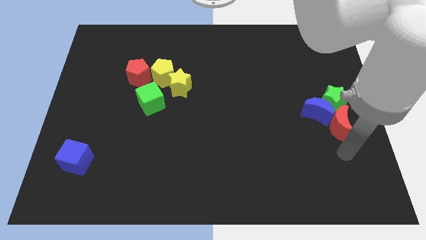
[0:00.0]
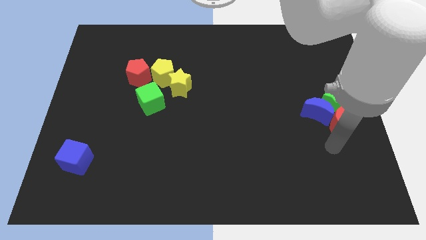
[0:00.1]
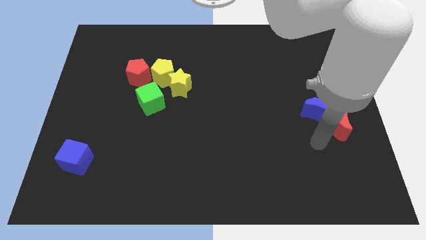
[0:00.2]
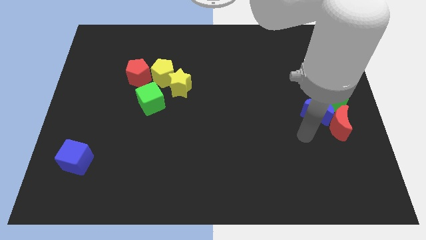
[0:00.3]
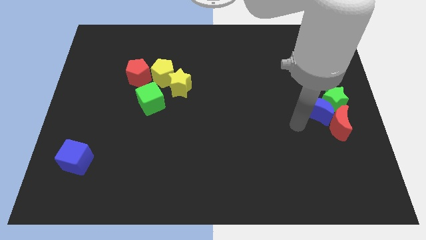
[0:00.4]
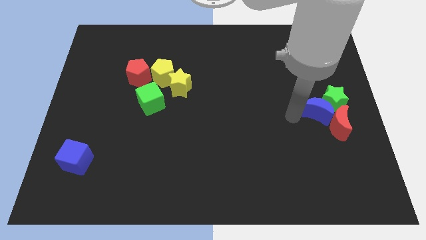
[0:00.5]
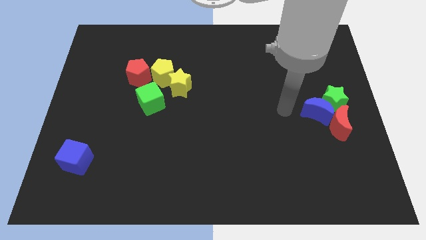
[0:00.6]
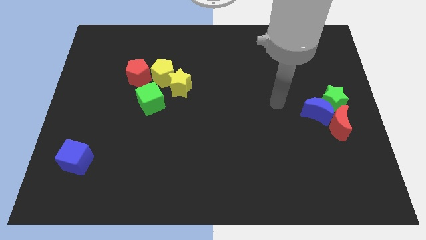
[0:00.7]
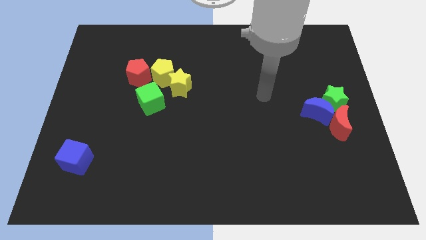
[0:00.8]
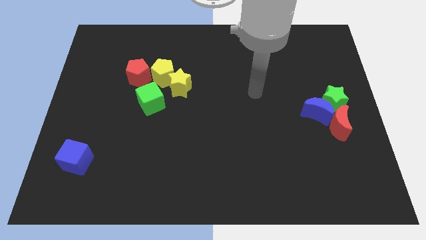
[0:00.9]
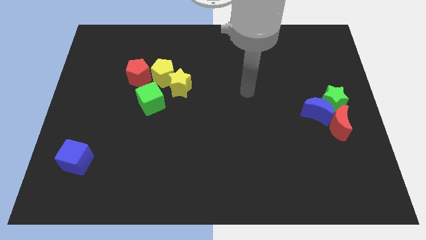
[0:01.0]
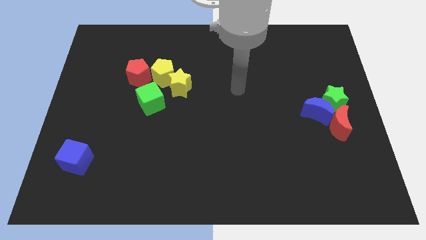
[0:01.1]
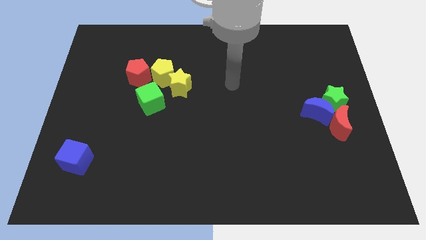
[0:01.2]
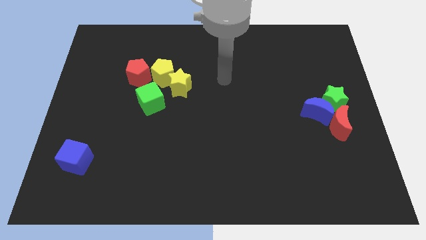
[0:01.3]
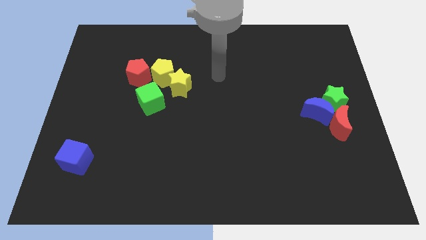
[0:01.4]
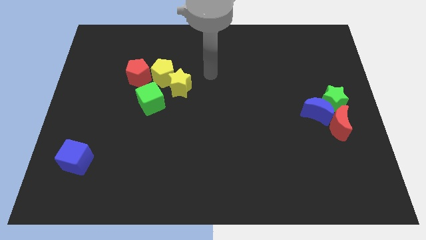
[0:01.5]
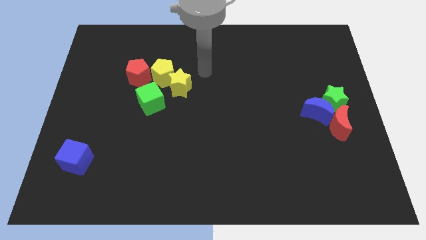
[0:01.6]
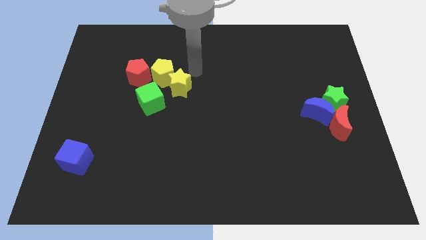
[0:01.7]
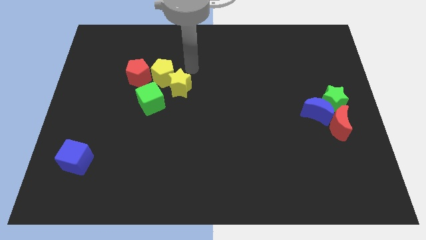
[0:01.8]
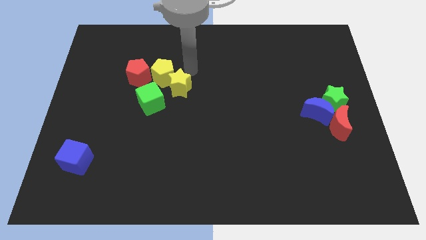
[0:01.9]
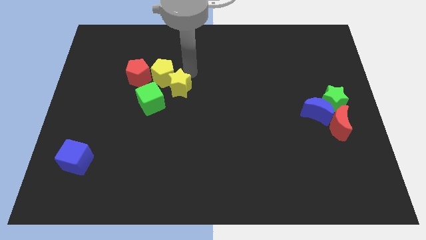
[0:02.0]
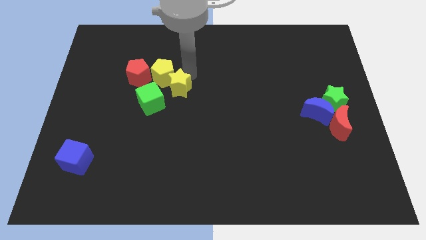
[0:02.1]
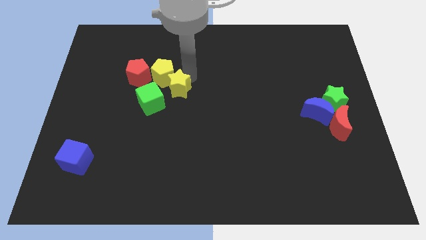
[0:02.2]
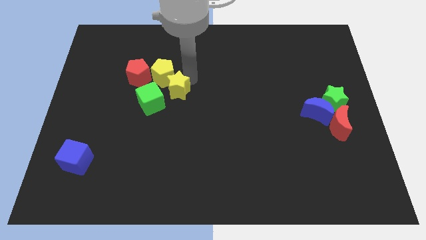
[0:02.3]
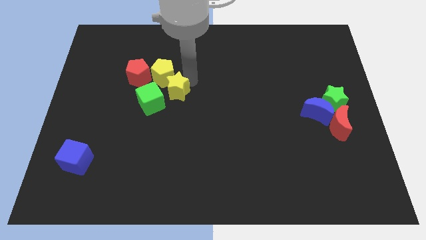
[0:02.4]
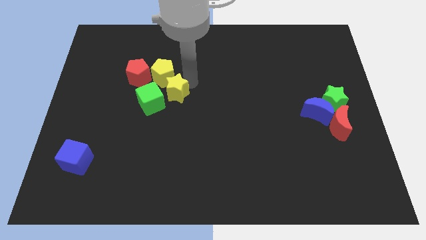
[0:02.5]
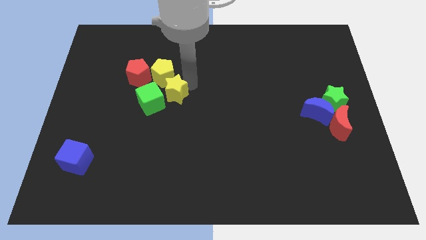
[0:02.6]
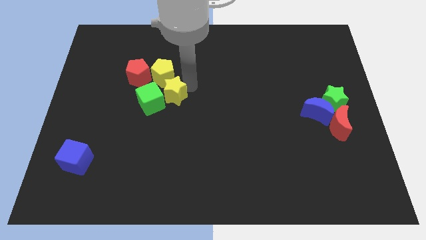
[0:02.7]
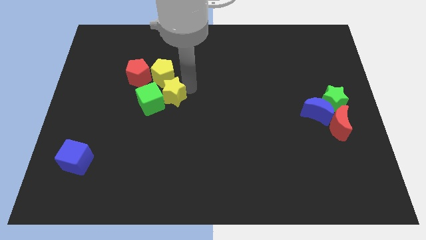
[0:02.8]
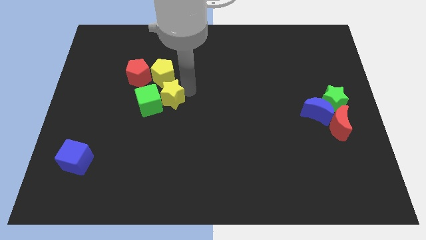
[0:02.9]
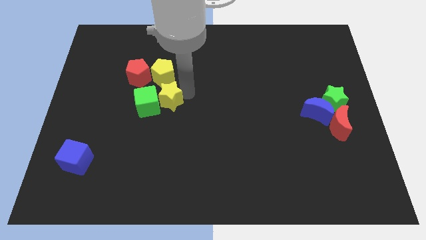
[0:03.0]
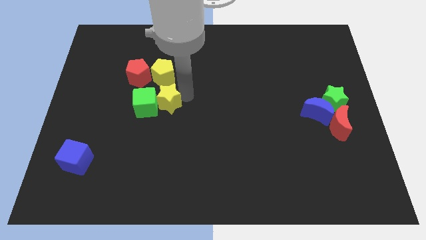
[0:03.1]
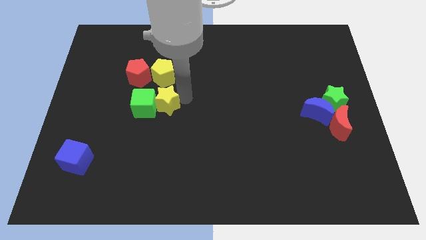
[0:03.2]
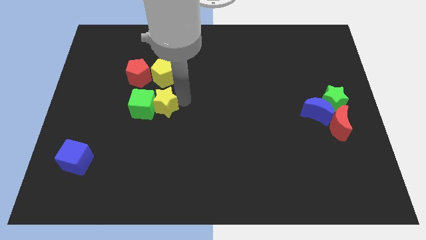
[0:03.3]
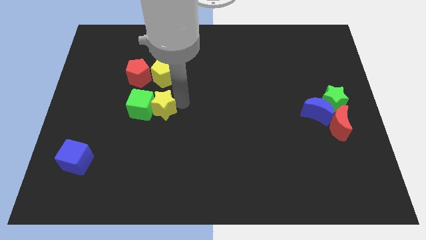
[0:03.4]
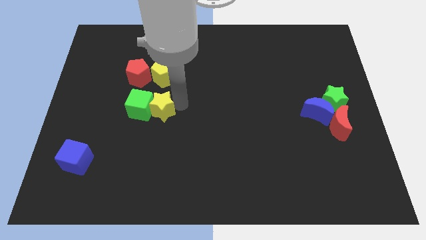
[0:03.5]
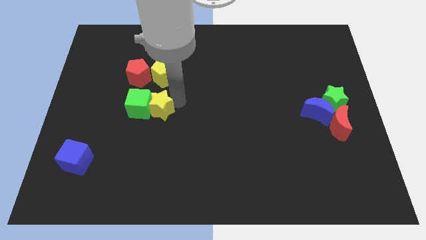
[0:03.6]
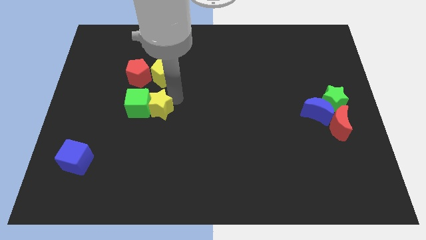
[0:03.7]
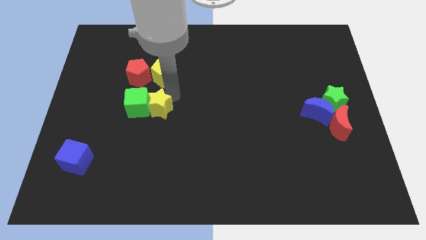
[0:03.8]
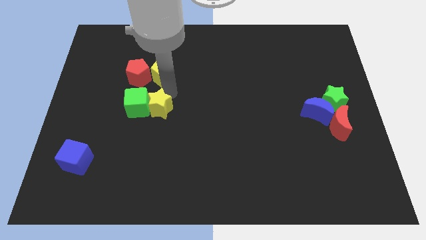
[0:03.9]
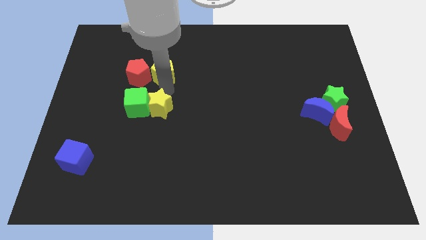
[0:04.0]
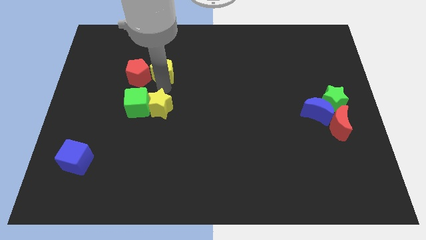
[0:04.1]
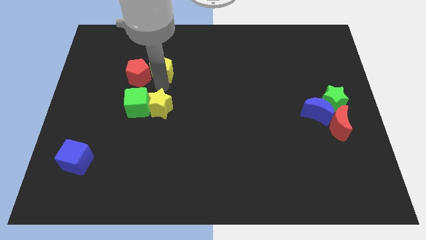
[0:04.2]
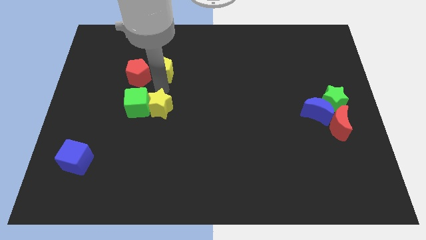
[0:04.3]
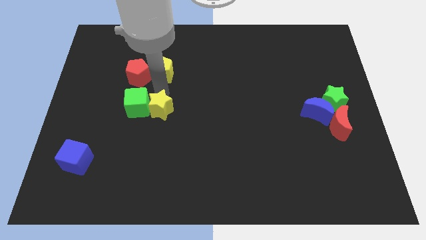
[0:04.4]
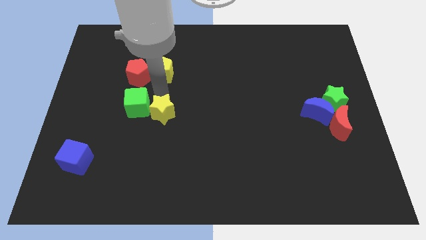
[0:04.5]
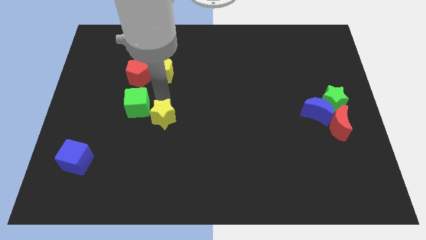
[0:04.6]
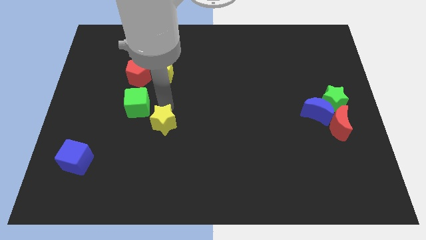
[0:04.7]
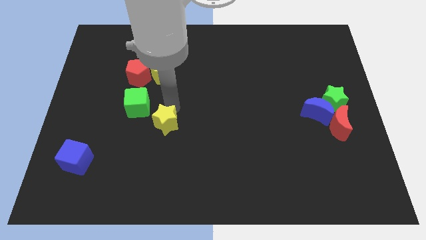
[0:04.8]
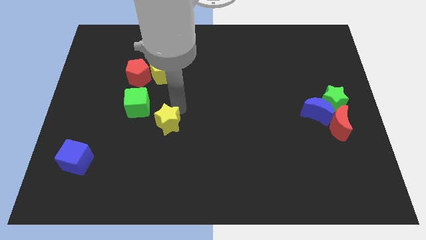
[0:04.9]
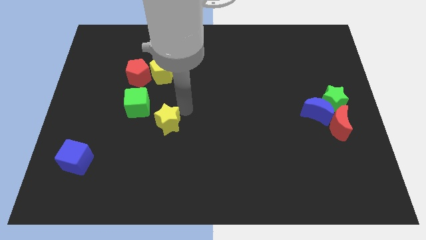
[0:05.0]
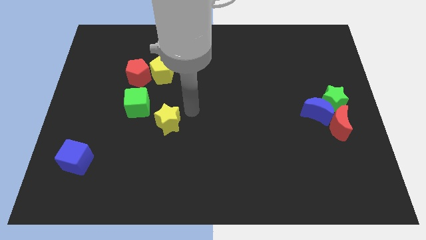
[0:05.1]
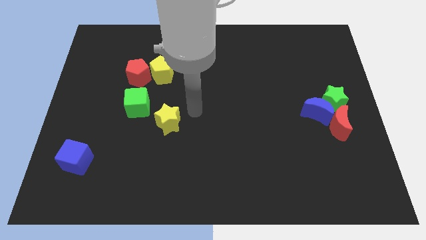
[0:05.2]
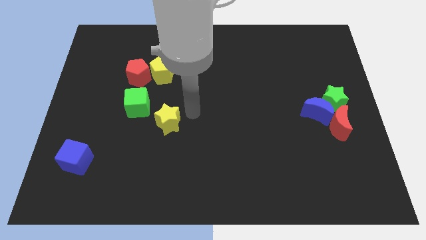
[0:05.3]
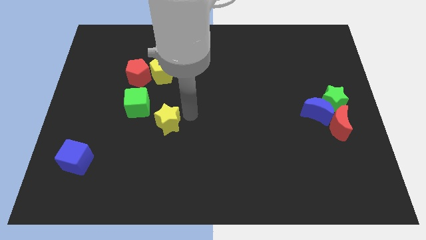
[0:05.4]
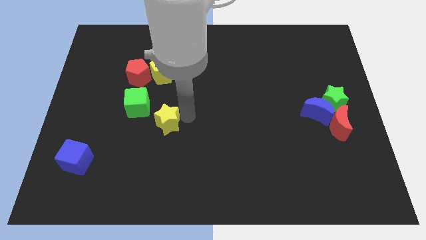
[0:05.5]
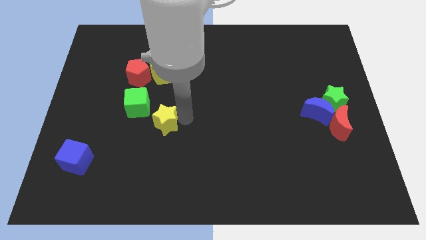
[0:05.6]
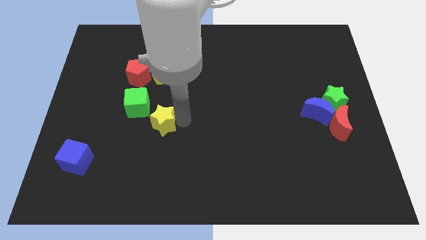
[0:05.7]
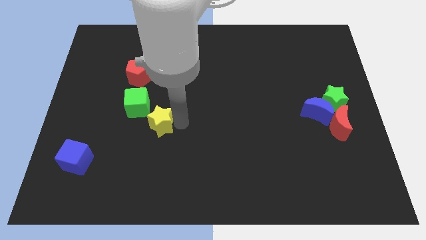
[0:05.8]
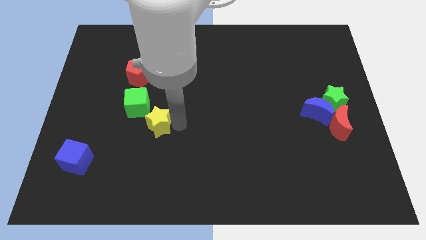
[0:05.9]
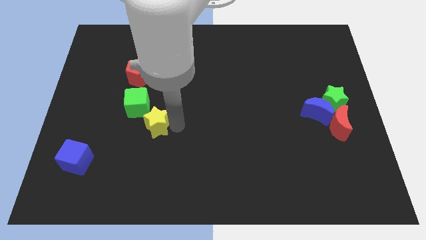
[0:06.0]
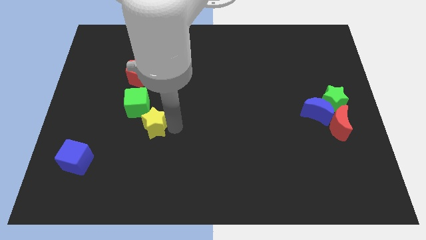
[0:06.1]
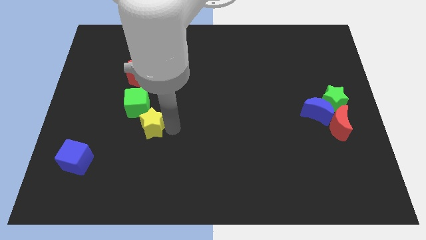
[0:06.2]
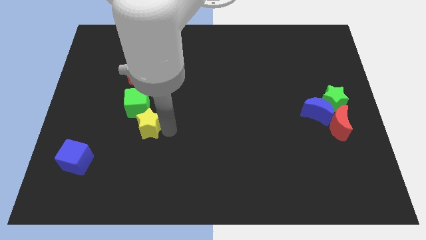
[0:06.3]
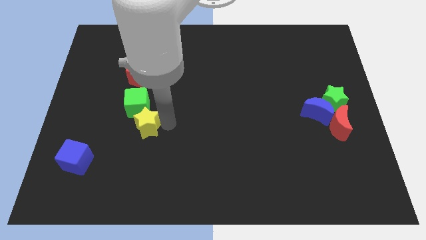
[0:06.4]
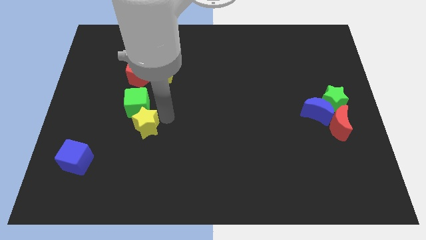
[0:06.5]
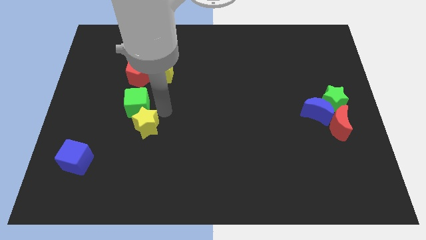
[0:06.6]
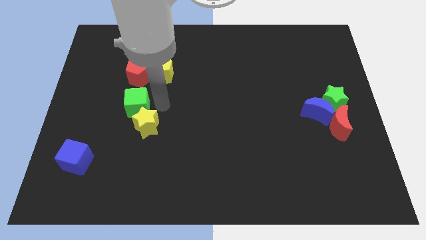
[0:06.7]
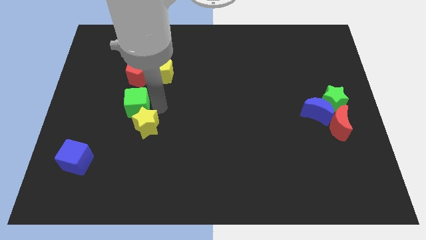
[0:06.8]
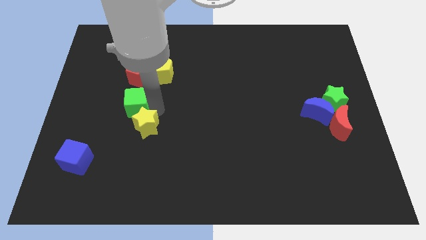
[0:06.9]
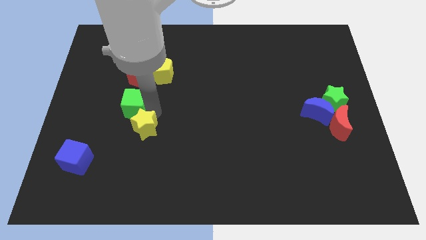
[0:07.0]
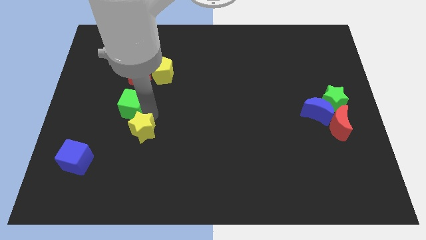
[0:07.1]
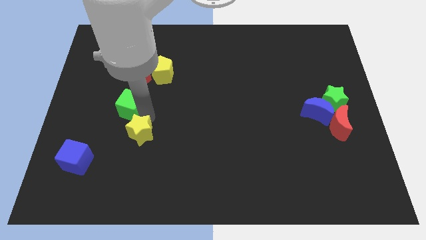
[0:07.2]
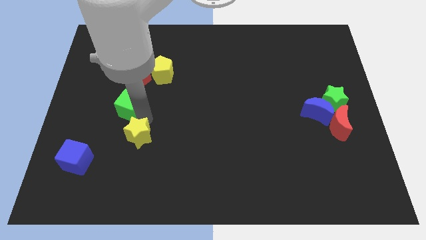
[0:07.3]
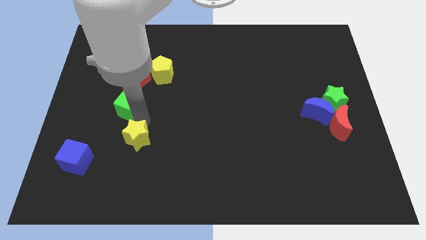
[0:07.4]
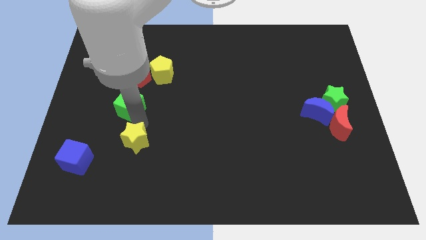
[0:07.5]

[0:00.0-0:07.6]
put the yellow star to the right side of the blue cube
